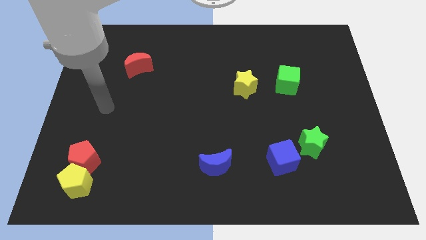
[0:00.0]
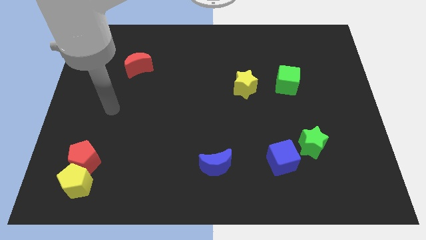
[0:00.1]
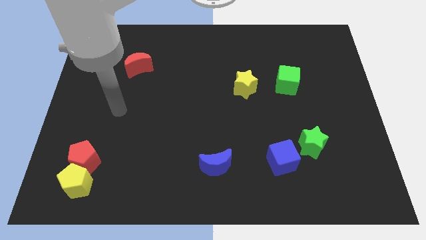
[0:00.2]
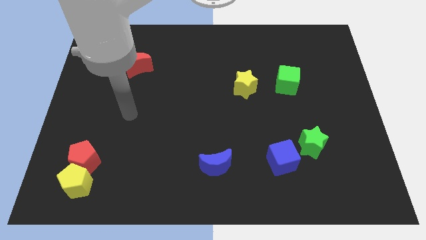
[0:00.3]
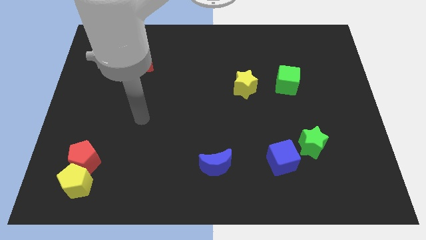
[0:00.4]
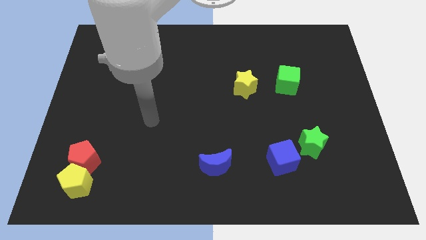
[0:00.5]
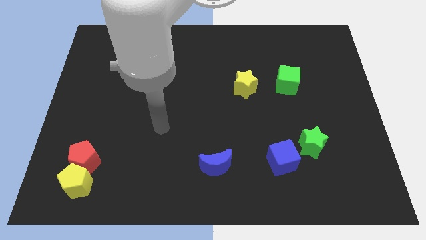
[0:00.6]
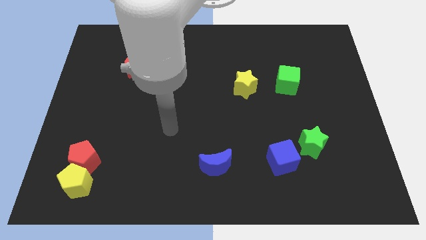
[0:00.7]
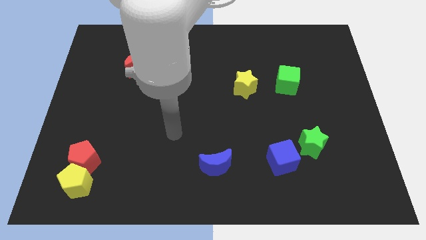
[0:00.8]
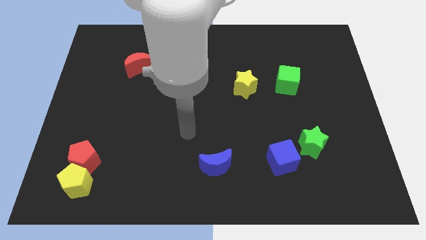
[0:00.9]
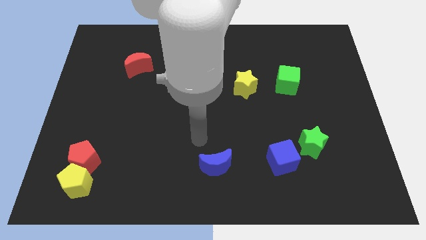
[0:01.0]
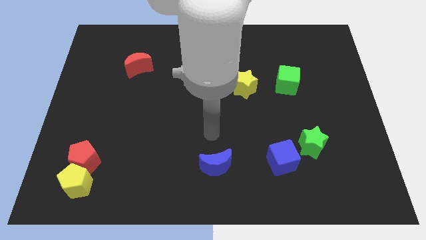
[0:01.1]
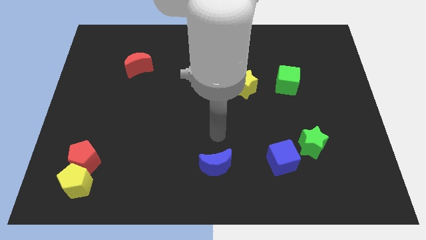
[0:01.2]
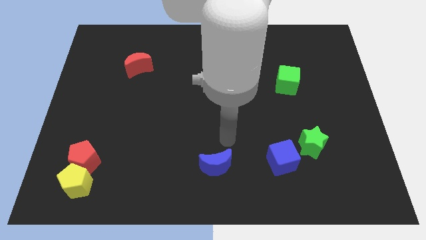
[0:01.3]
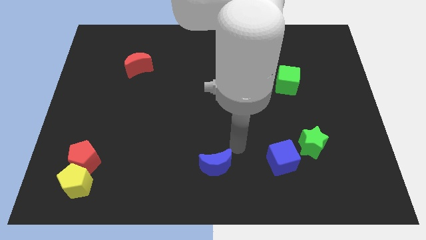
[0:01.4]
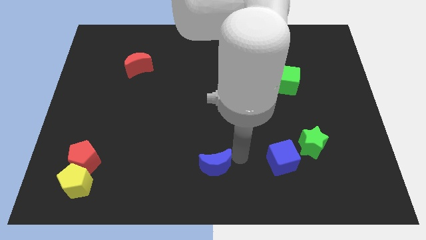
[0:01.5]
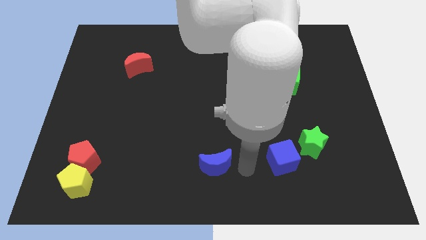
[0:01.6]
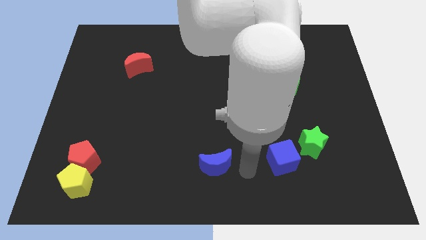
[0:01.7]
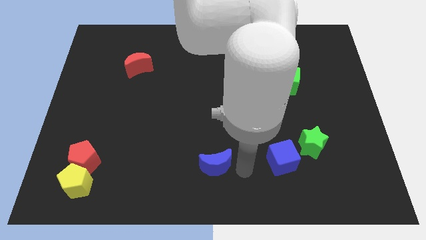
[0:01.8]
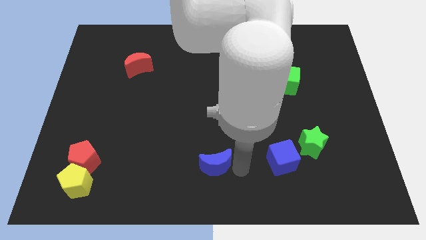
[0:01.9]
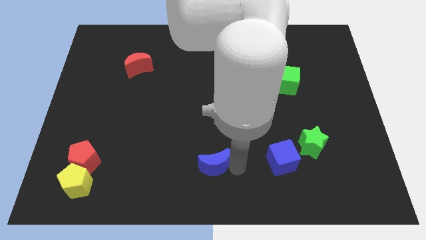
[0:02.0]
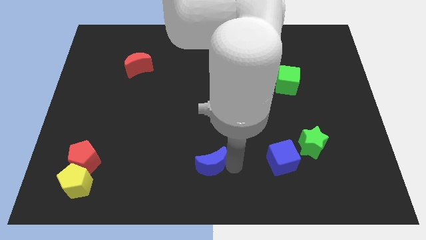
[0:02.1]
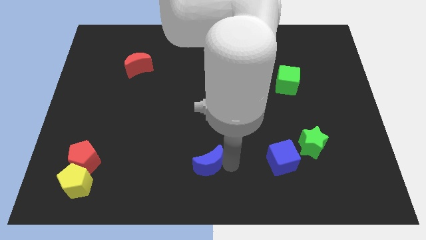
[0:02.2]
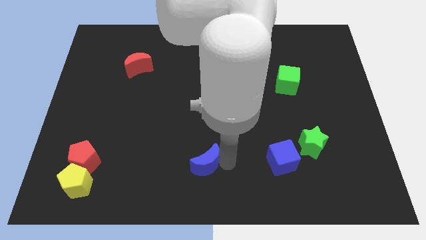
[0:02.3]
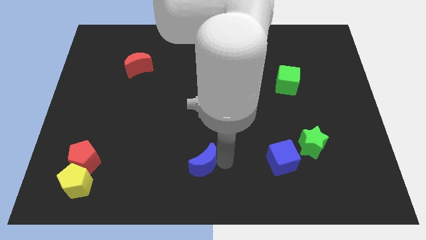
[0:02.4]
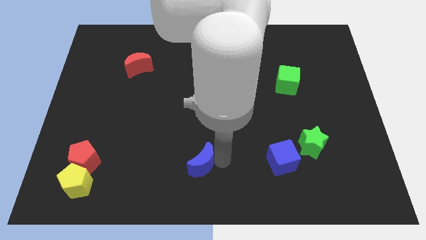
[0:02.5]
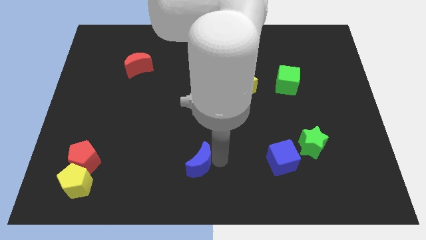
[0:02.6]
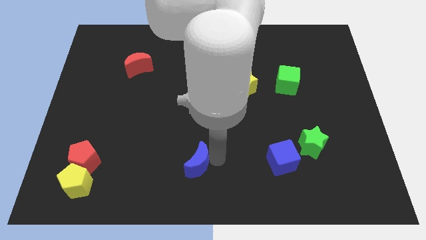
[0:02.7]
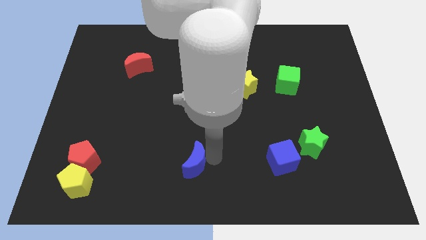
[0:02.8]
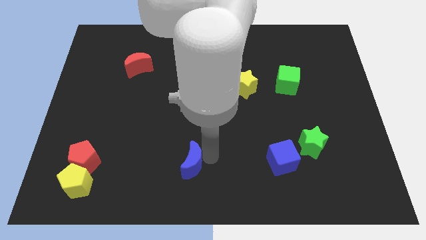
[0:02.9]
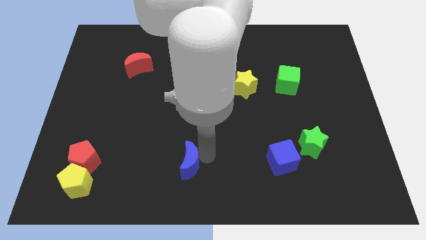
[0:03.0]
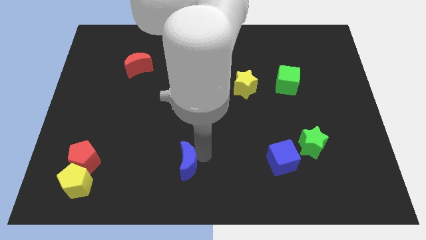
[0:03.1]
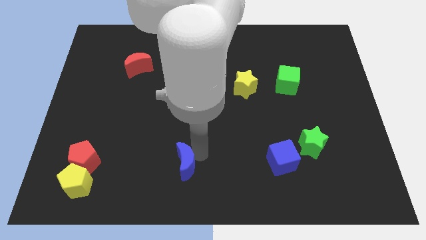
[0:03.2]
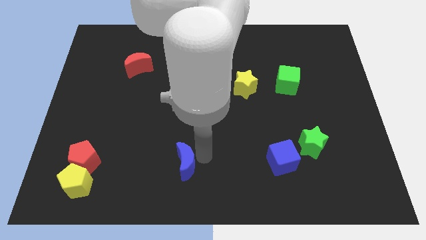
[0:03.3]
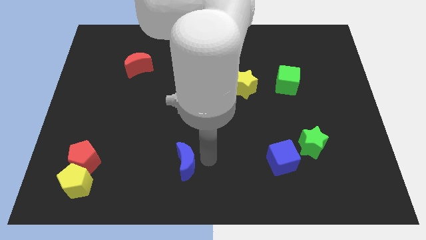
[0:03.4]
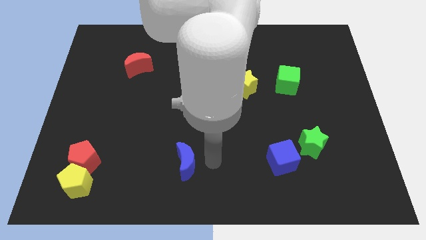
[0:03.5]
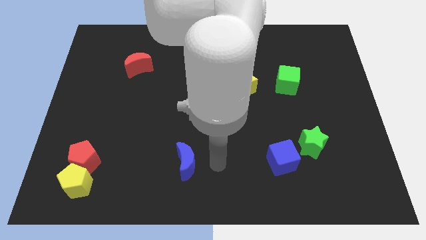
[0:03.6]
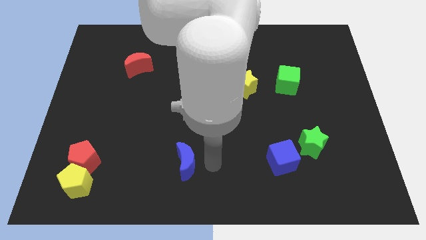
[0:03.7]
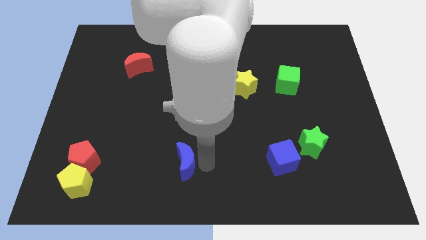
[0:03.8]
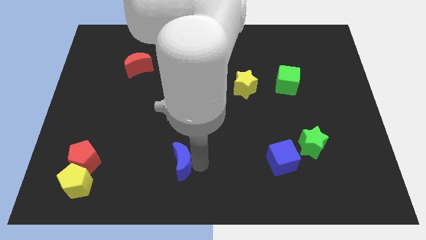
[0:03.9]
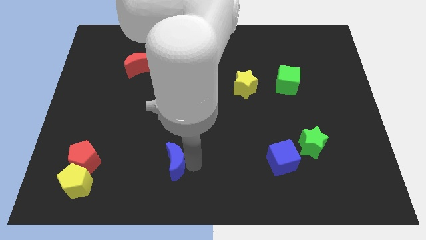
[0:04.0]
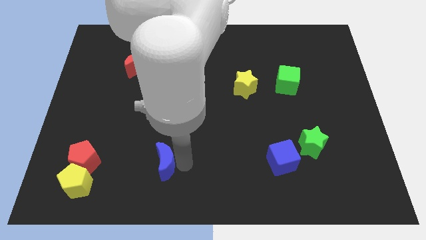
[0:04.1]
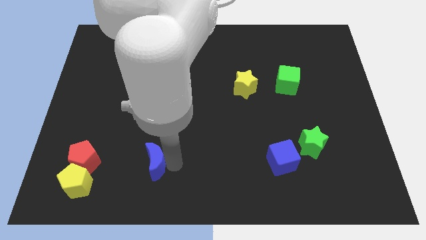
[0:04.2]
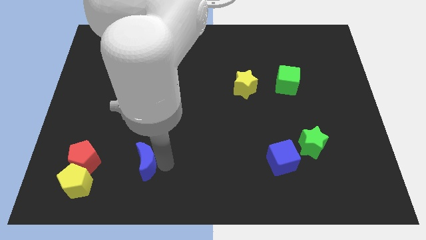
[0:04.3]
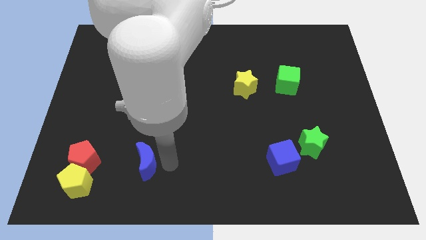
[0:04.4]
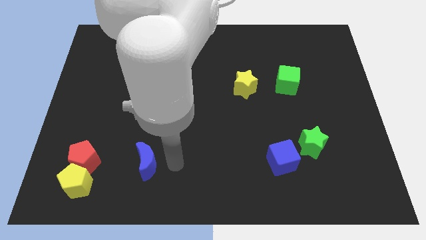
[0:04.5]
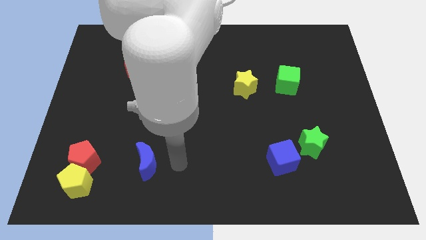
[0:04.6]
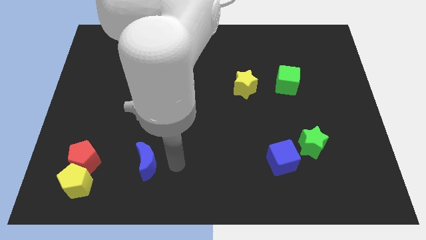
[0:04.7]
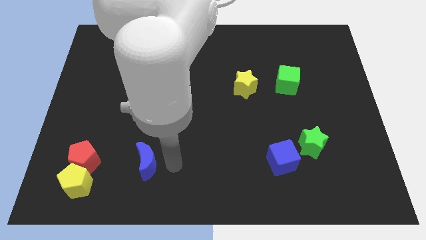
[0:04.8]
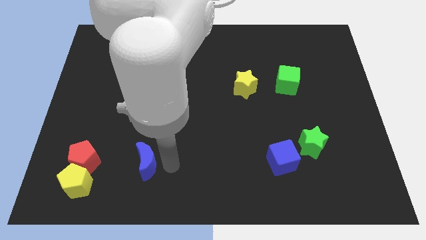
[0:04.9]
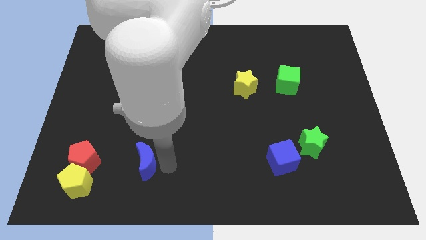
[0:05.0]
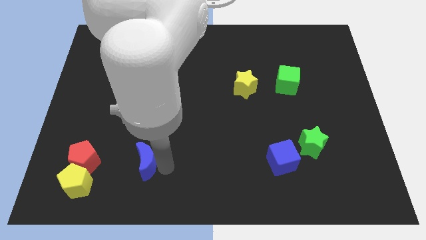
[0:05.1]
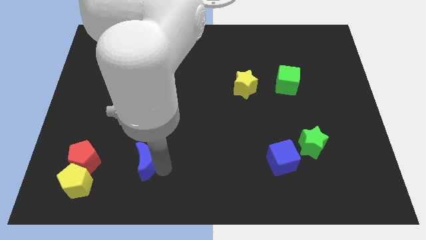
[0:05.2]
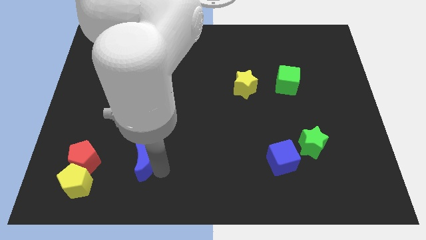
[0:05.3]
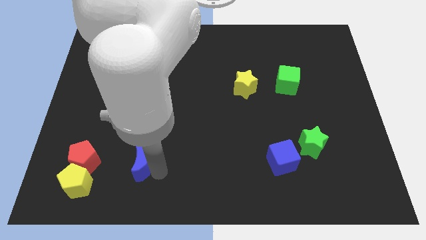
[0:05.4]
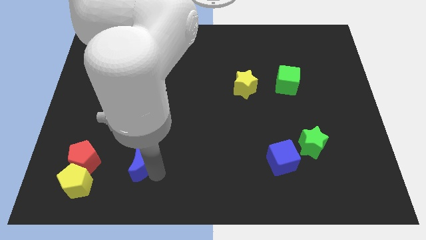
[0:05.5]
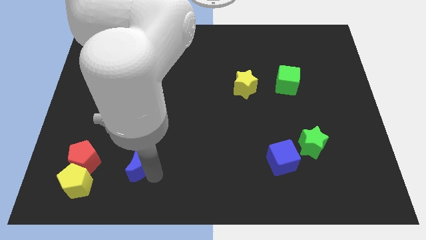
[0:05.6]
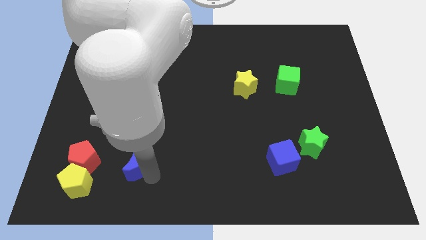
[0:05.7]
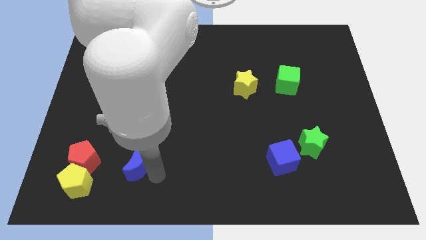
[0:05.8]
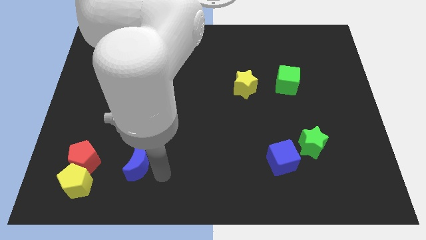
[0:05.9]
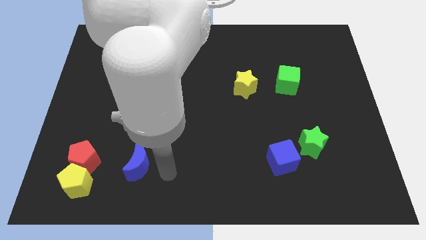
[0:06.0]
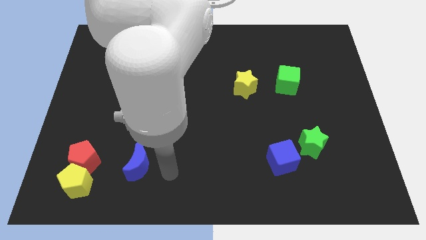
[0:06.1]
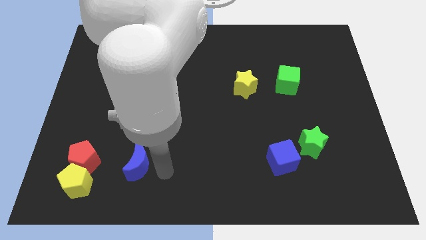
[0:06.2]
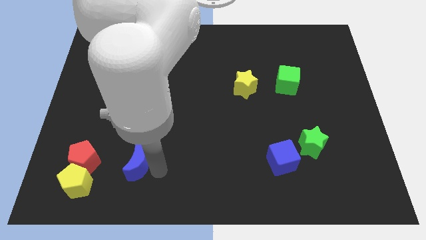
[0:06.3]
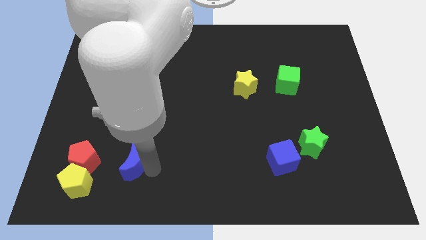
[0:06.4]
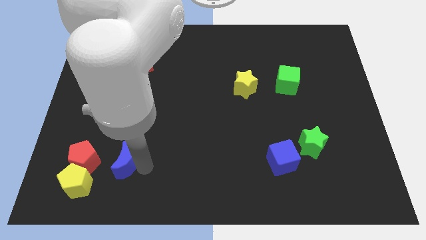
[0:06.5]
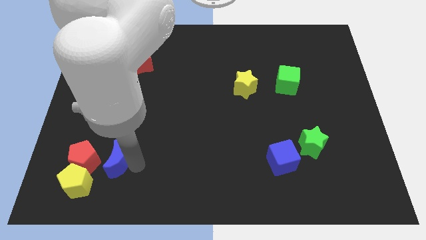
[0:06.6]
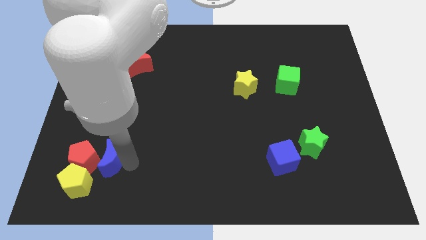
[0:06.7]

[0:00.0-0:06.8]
slide the blue moon next to the red pentagon
